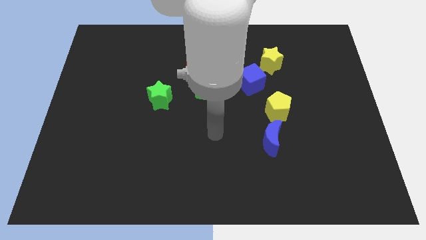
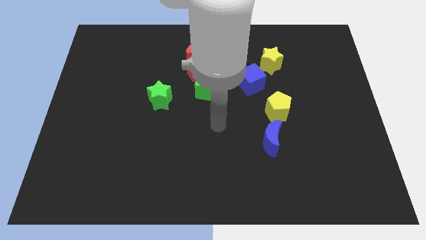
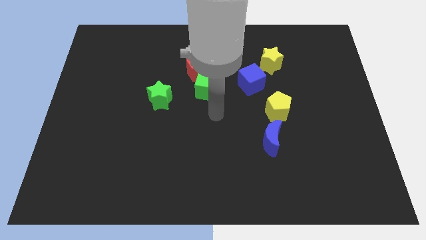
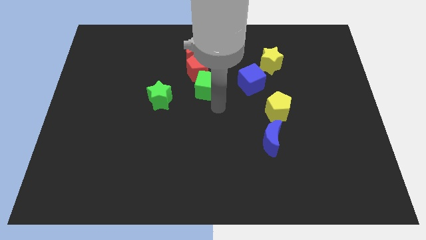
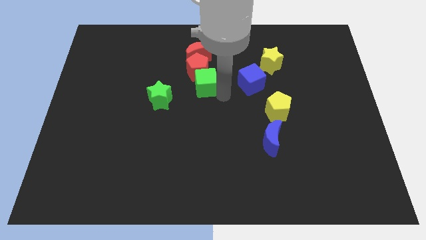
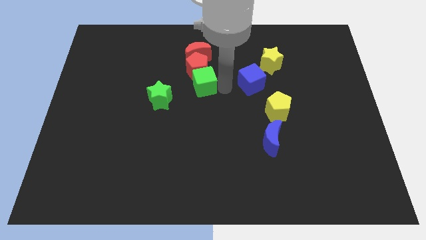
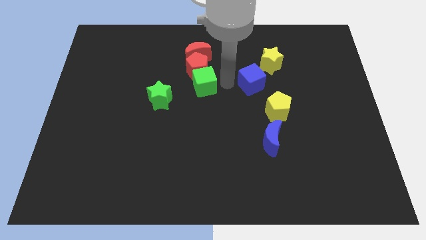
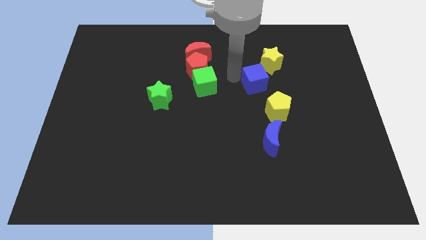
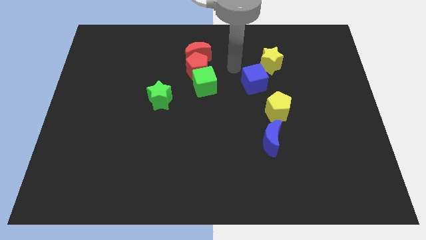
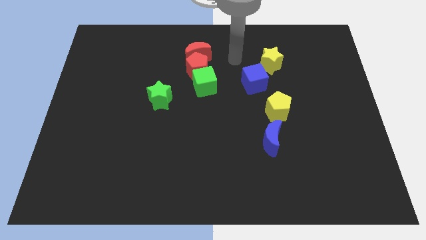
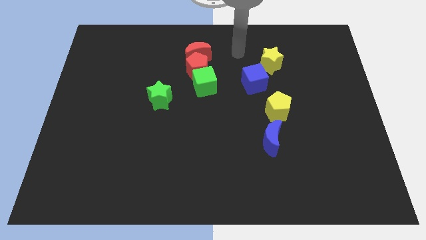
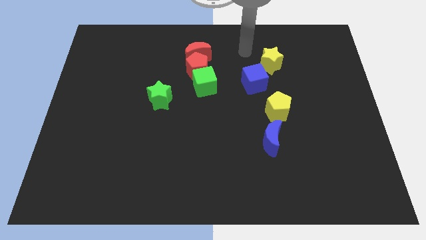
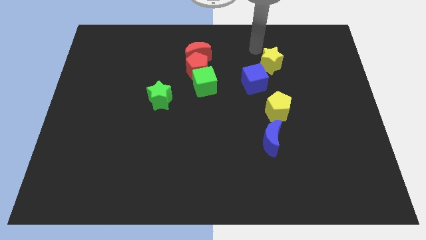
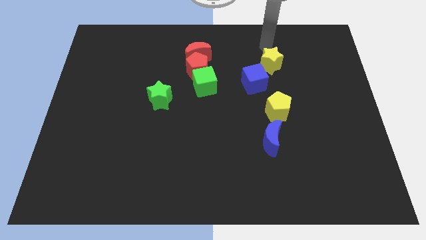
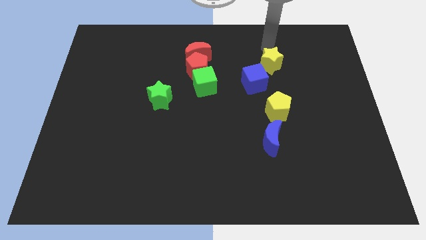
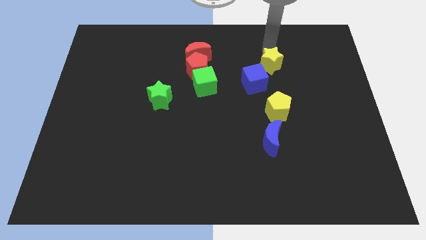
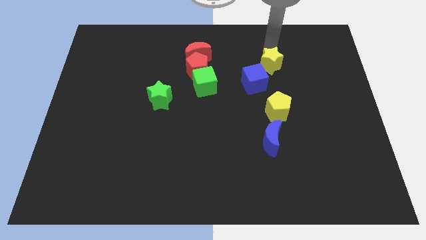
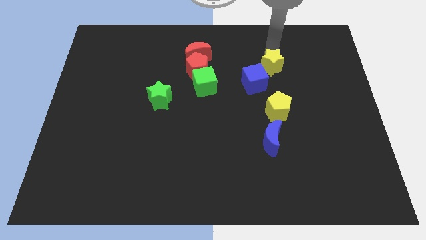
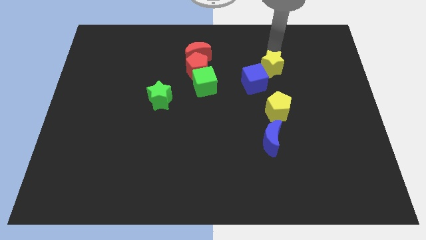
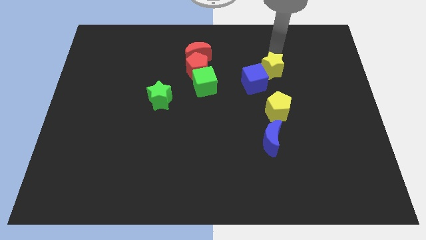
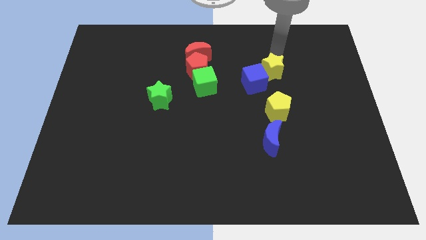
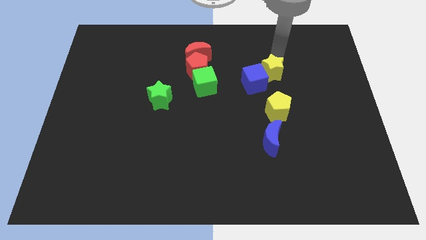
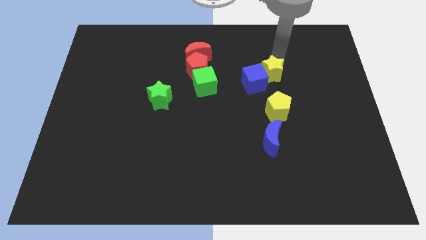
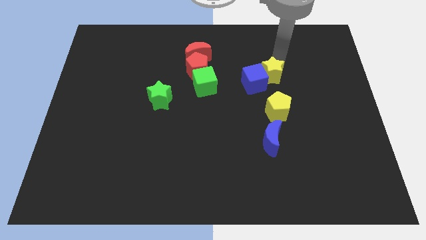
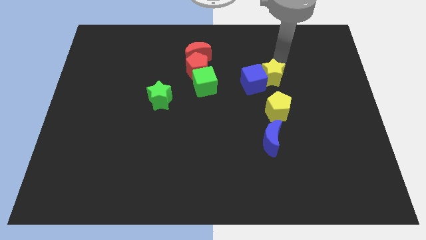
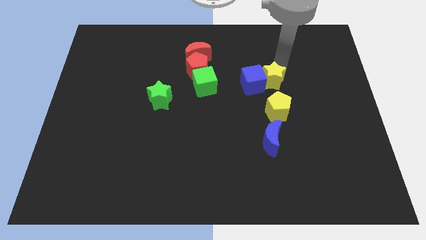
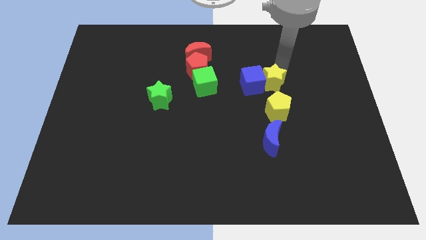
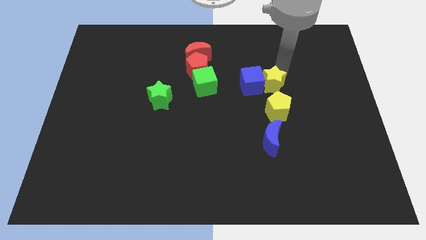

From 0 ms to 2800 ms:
slide the yellow star downwards slightly

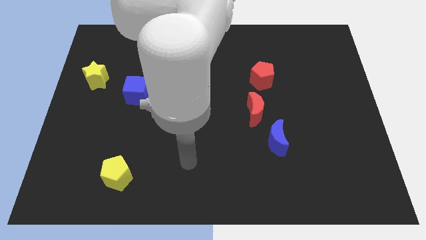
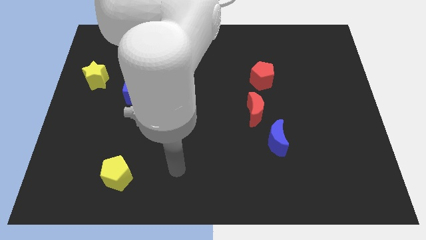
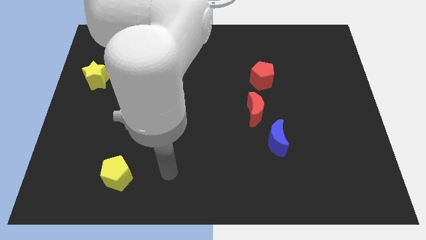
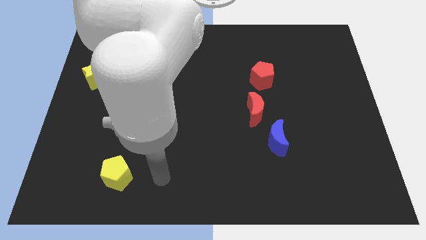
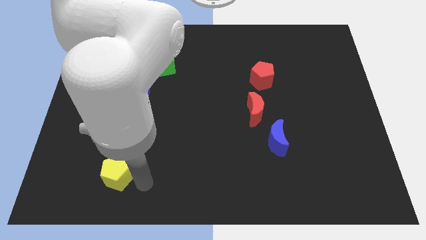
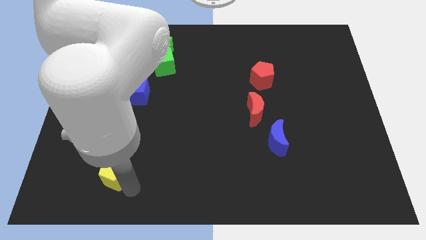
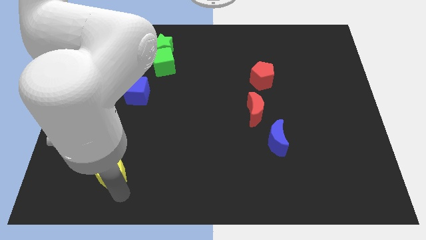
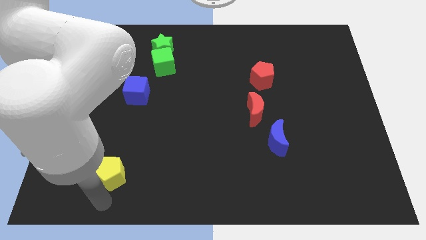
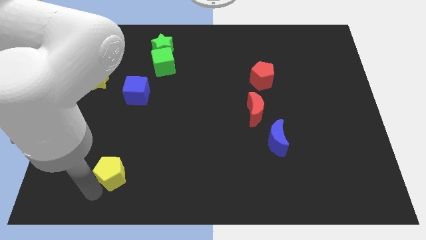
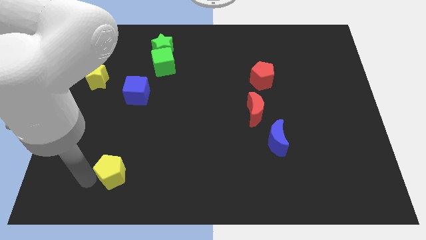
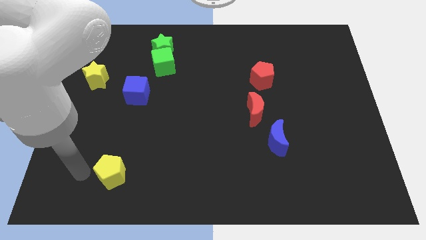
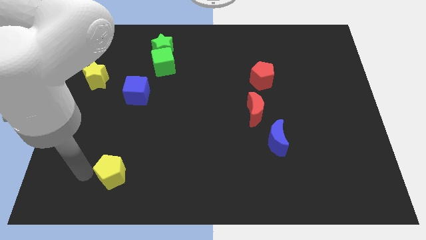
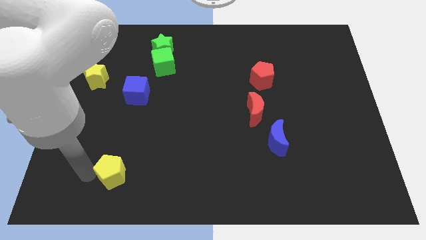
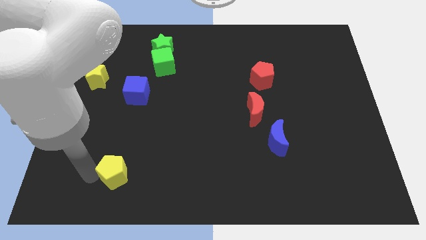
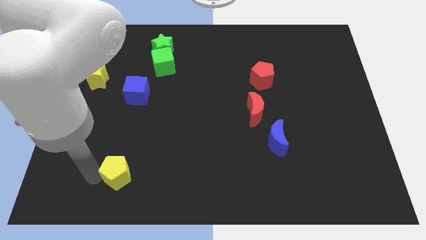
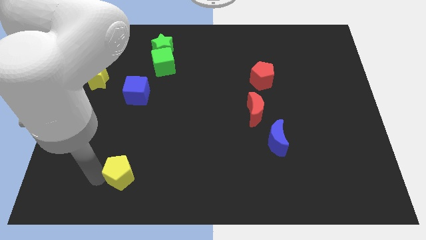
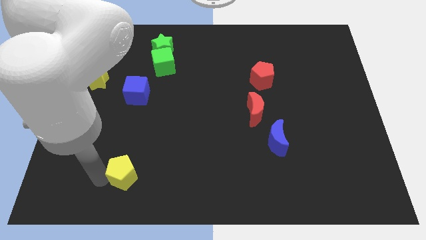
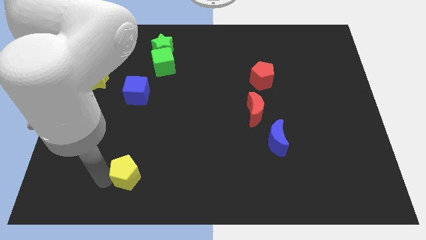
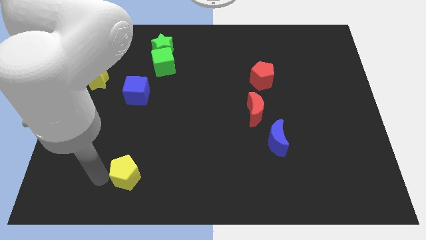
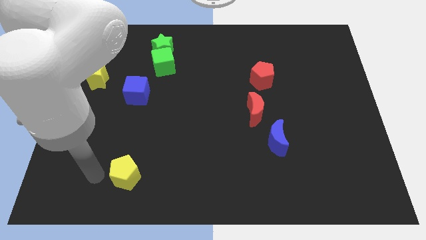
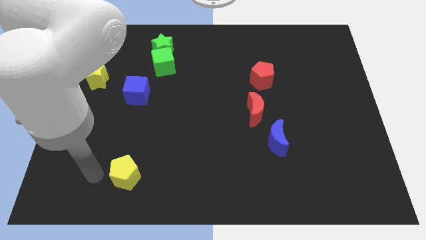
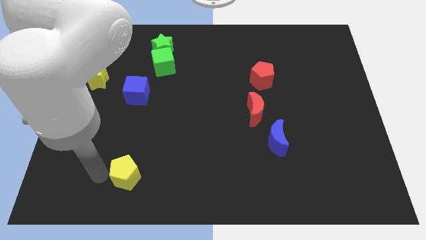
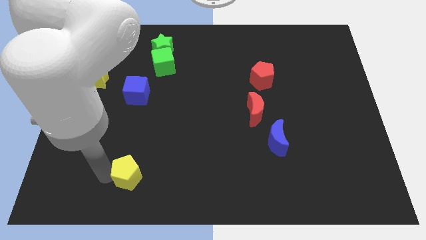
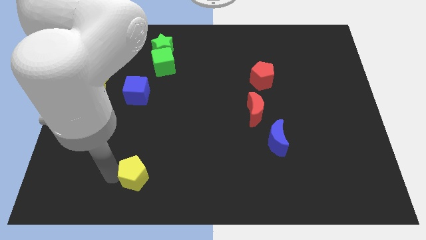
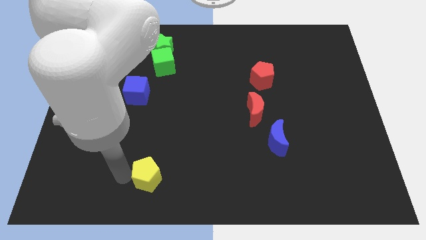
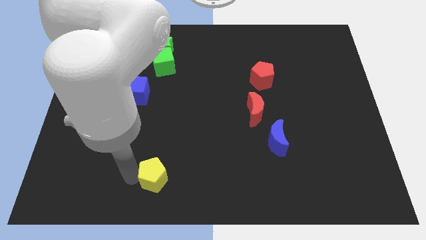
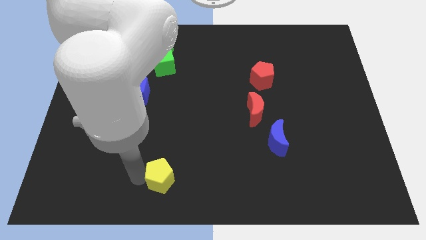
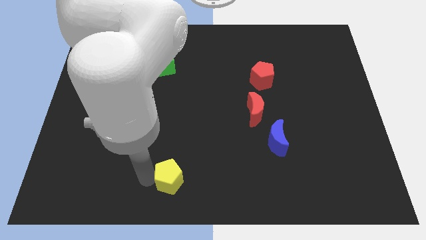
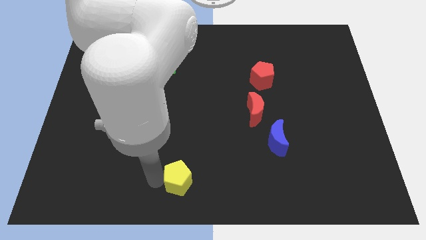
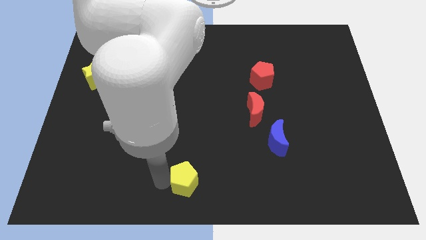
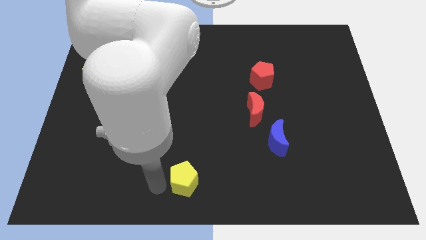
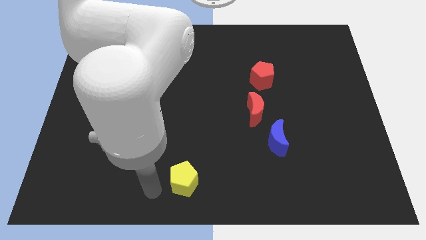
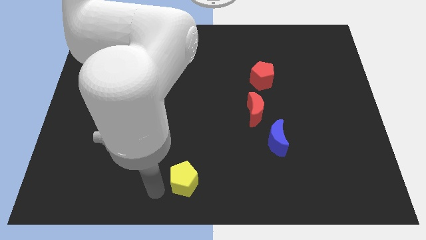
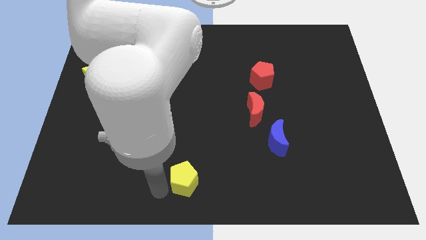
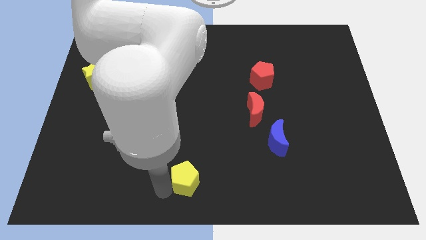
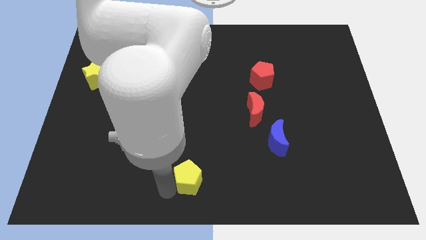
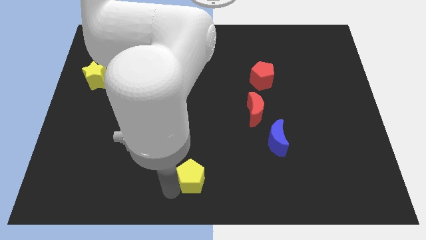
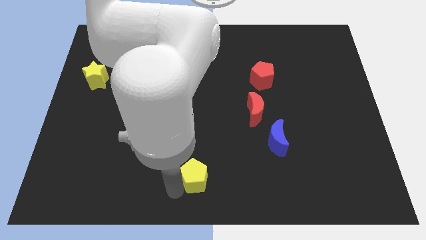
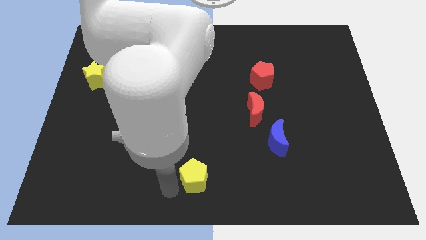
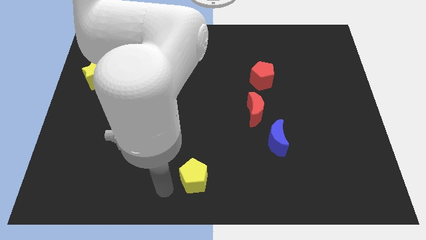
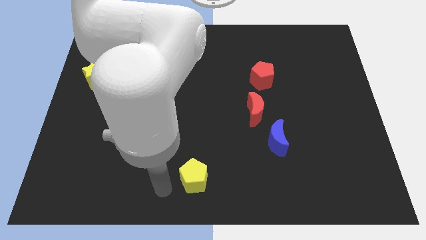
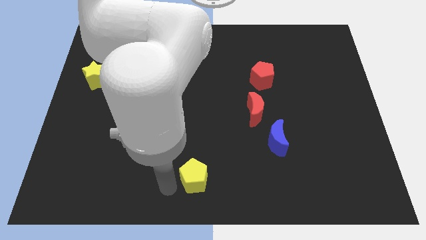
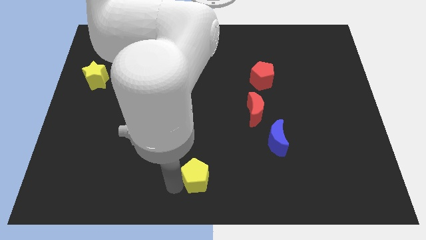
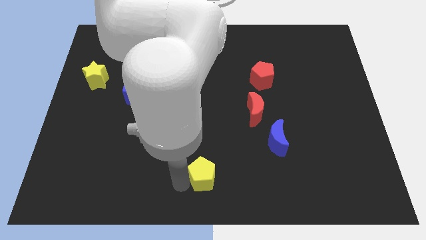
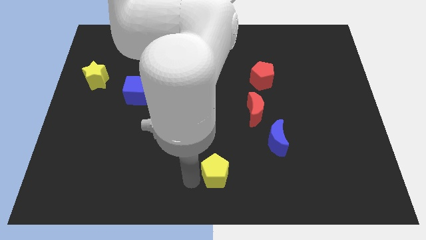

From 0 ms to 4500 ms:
move the yellow pentagon right

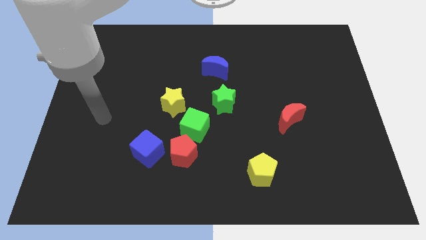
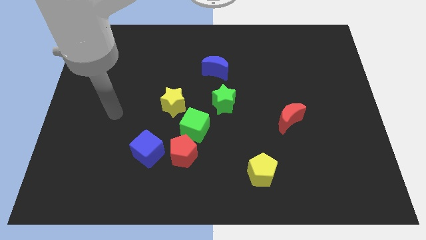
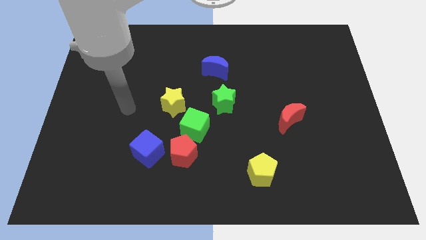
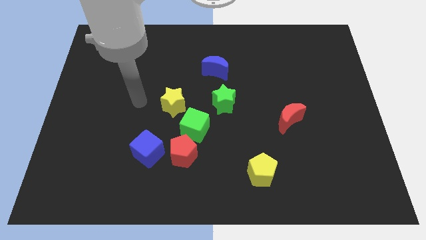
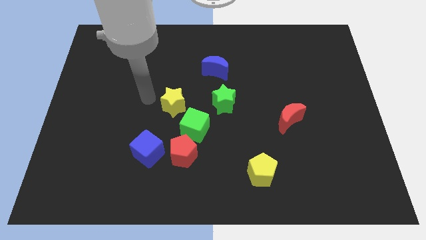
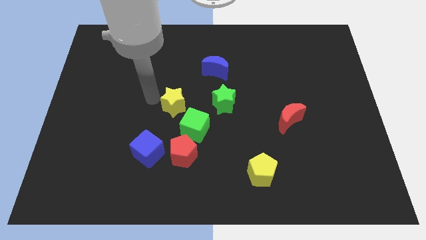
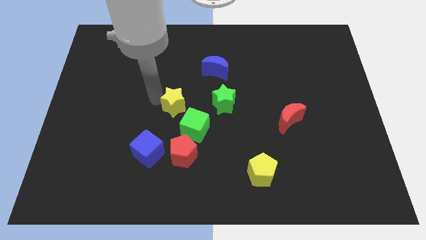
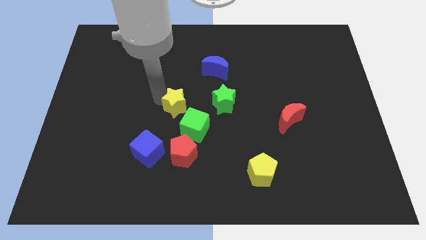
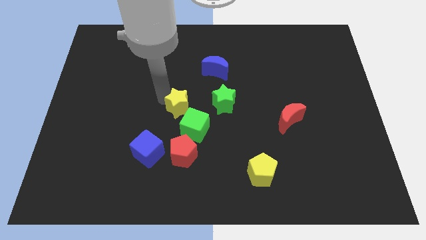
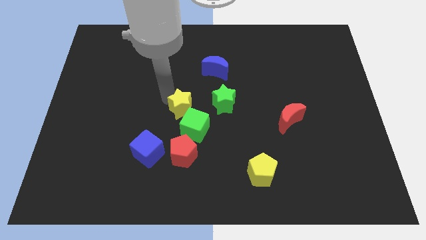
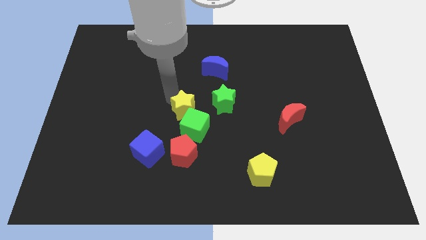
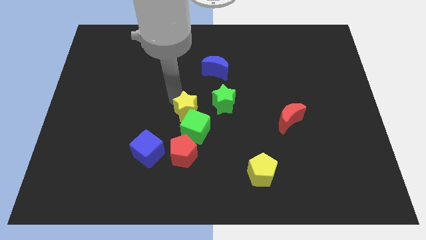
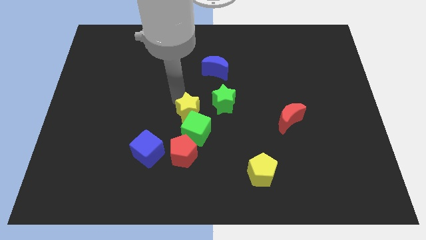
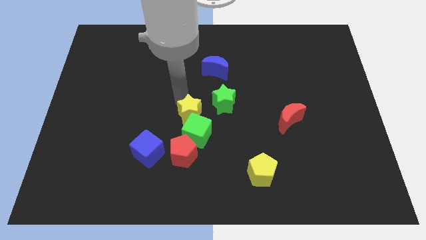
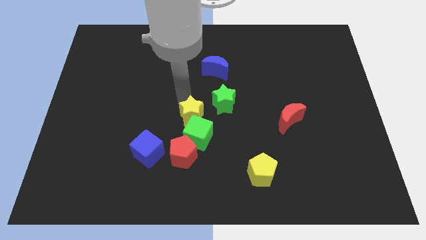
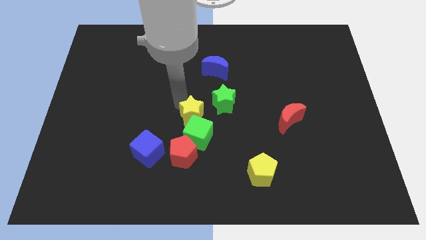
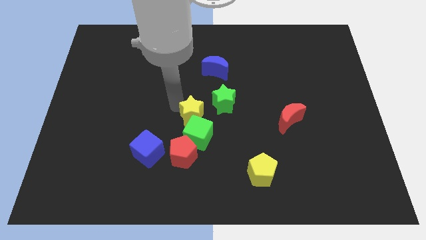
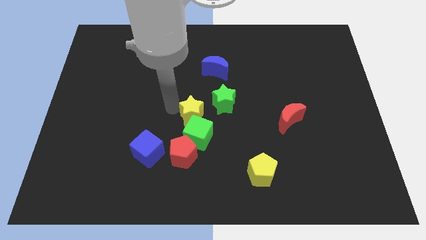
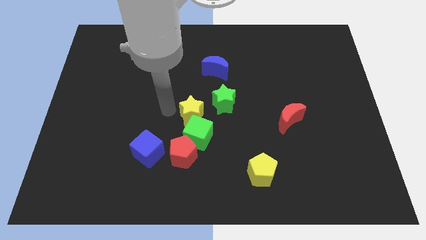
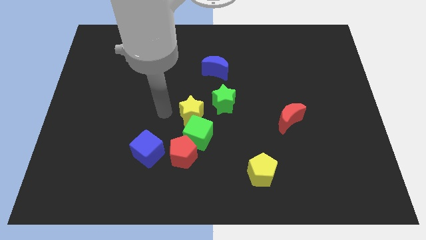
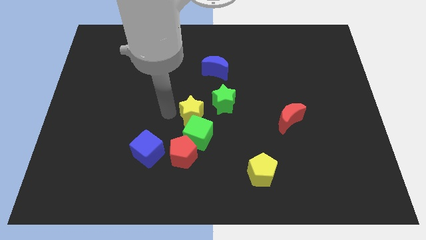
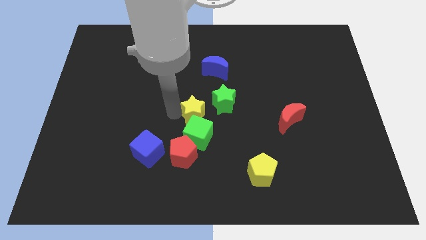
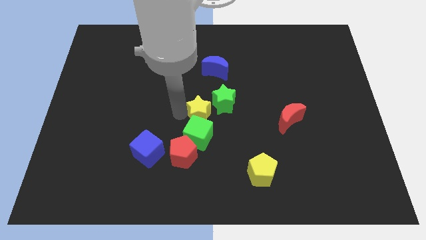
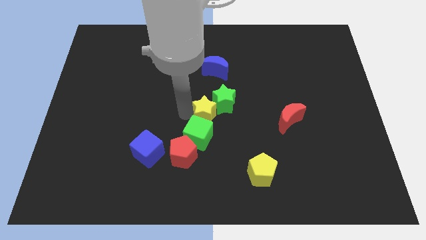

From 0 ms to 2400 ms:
push the yellow star a little bit diagonally down and right
